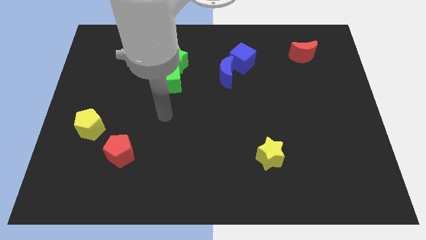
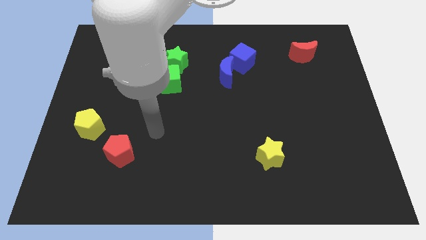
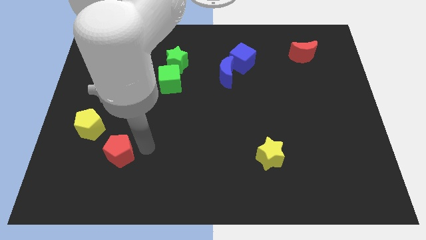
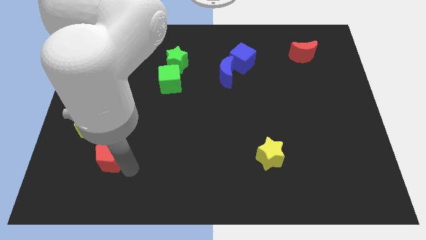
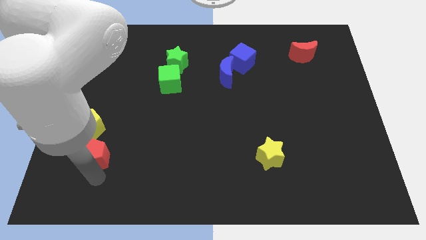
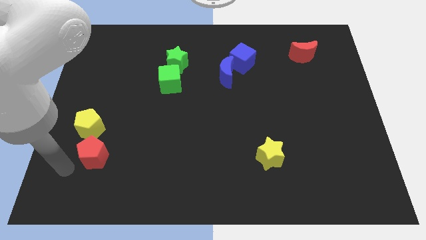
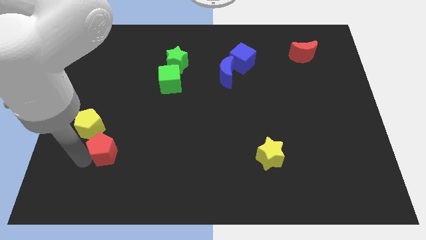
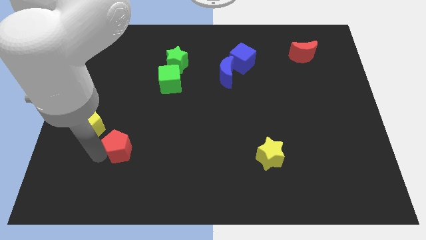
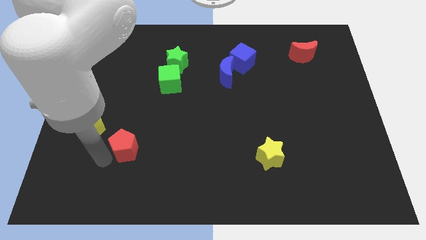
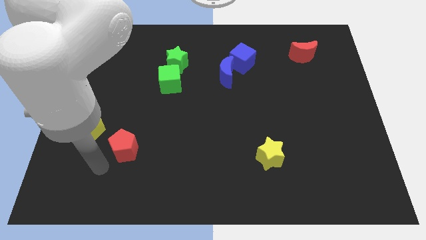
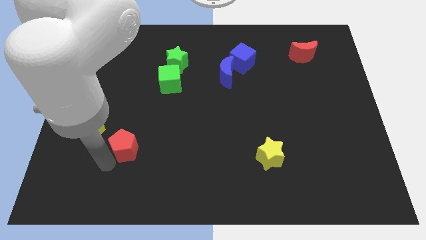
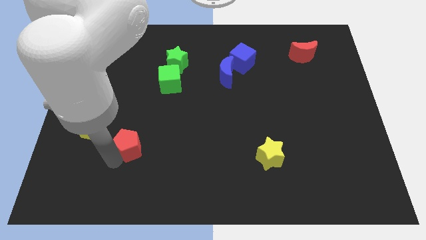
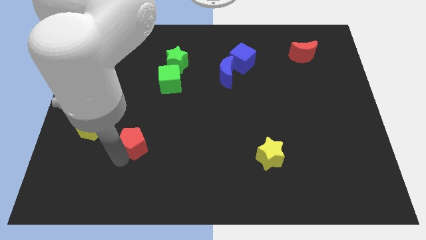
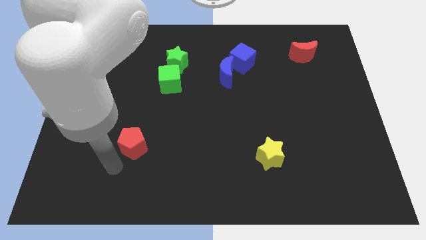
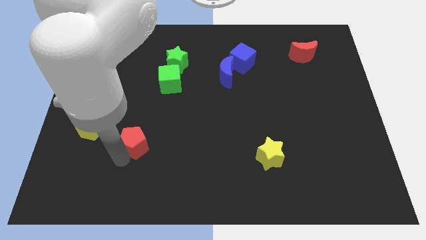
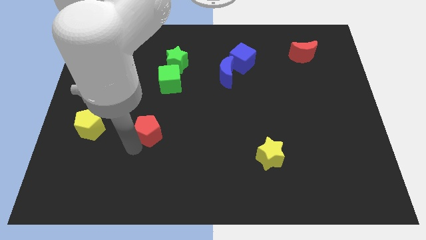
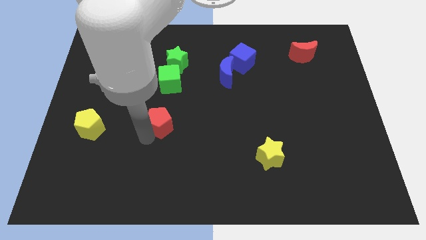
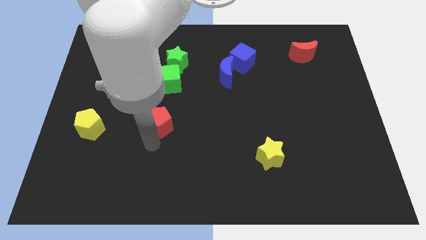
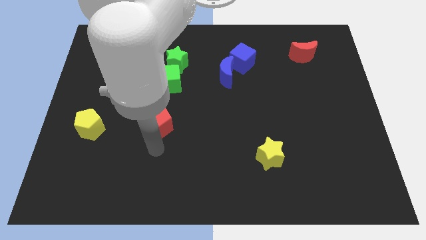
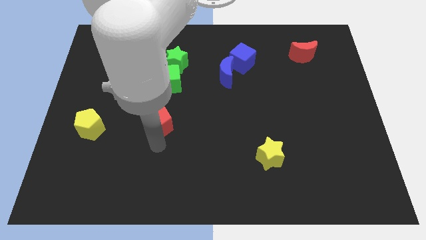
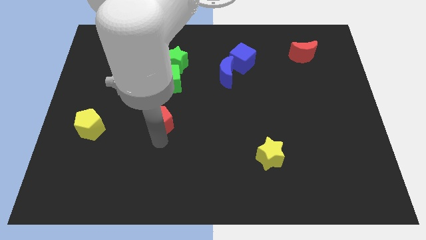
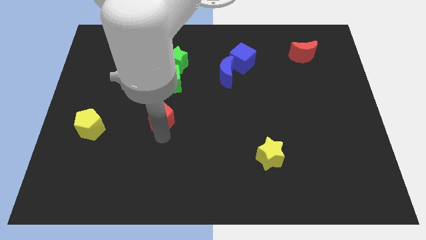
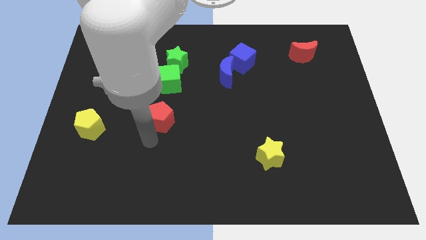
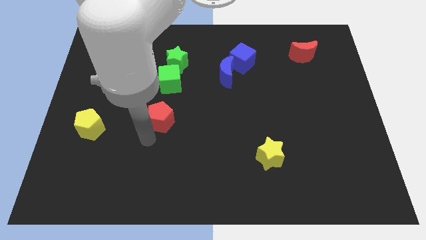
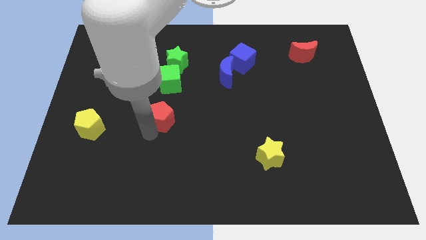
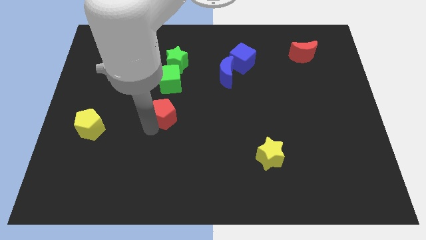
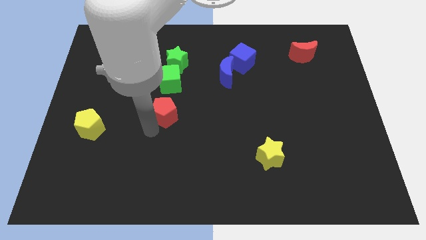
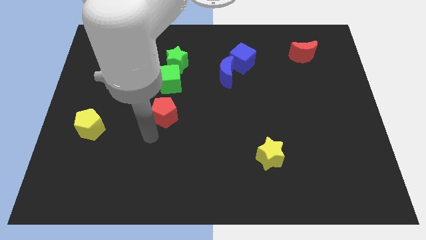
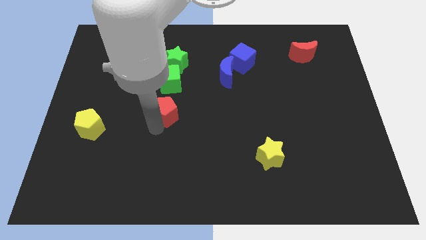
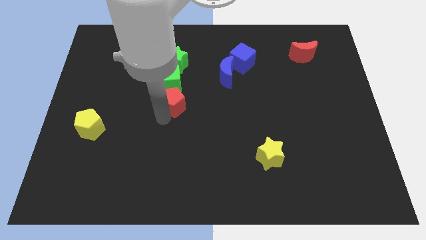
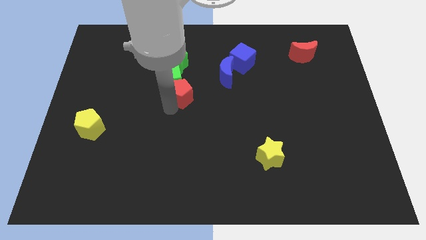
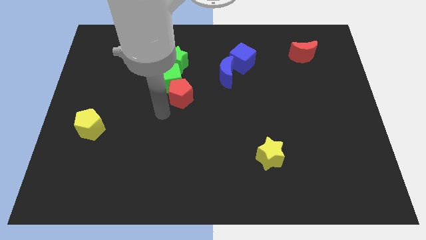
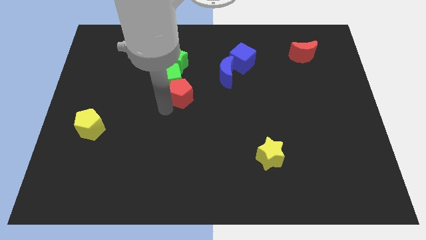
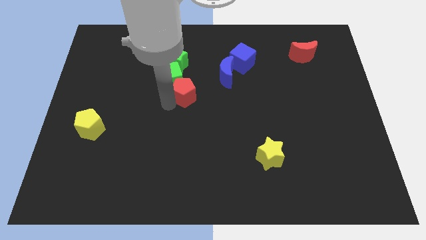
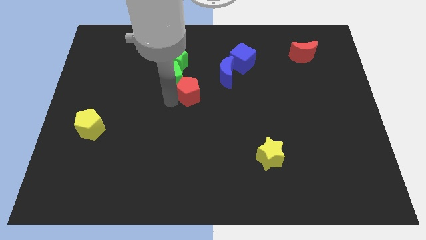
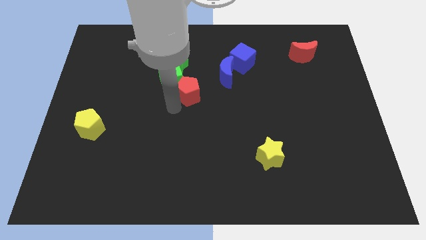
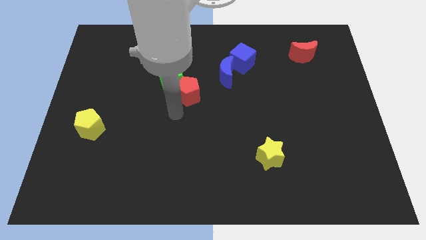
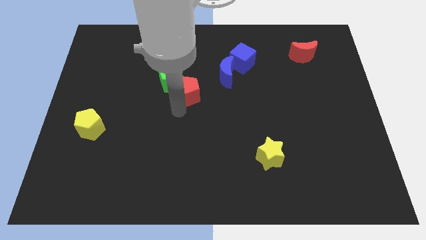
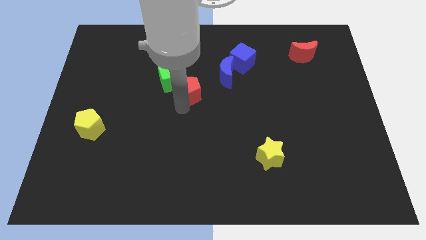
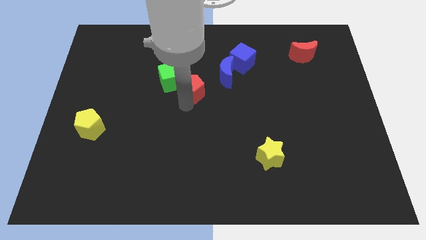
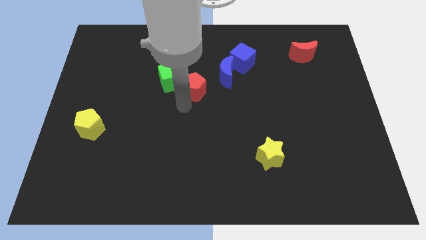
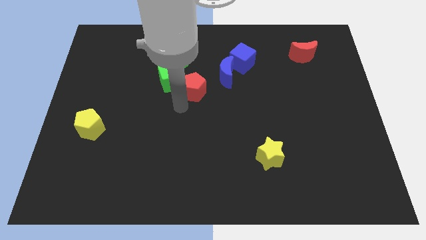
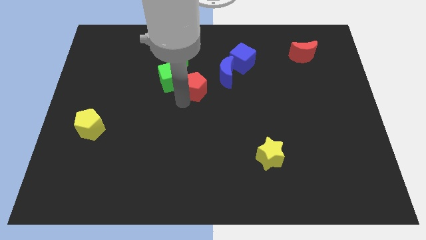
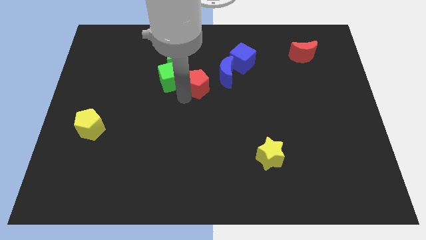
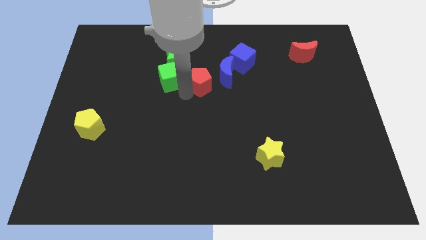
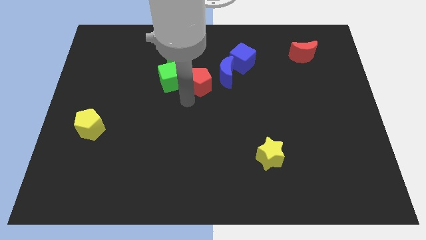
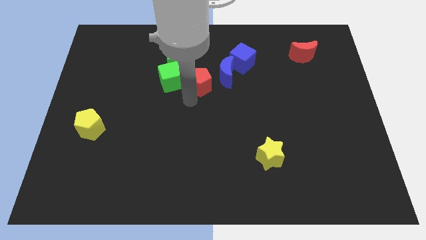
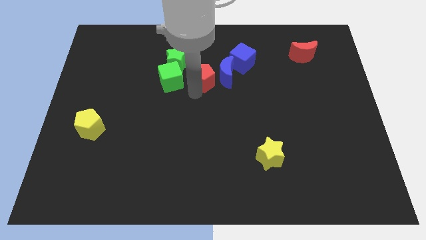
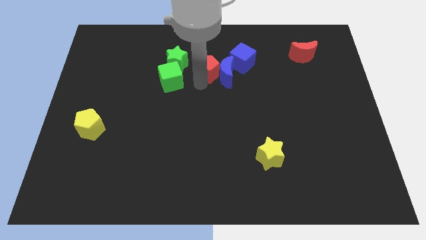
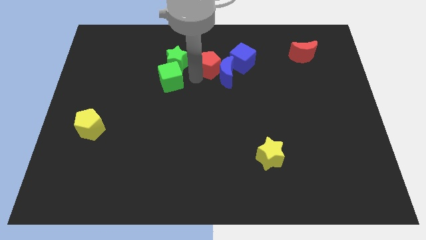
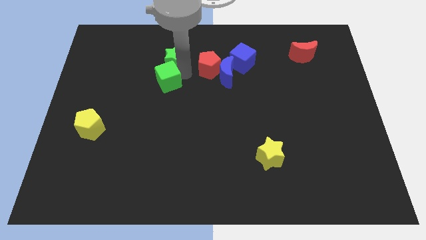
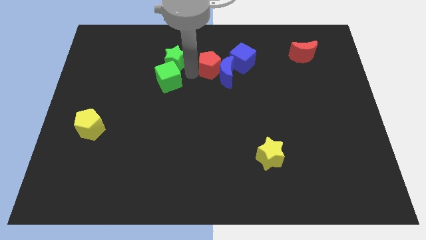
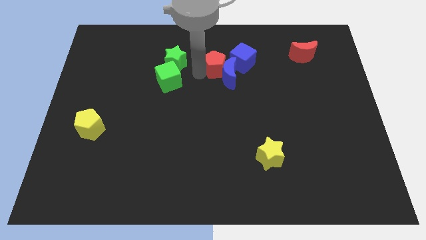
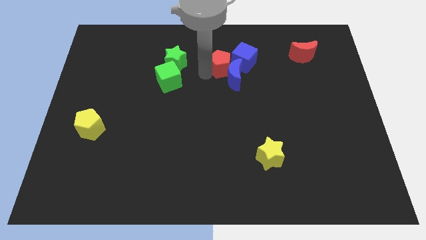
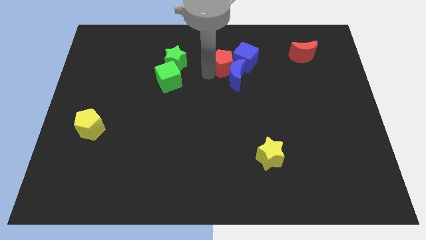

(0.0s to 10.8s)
slide the red pentagon close to the blue cube

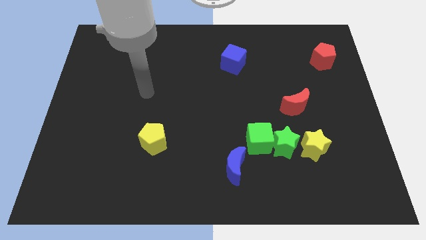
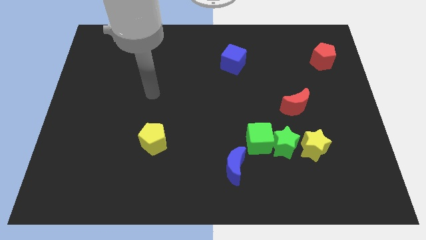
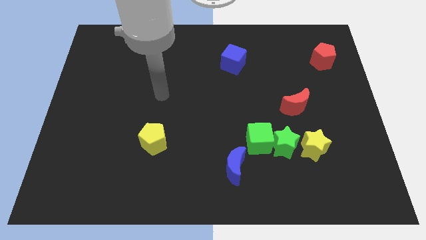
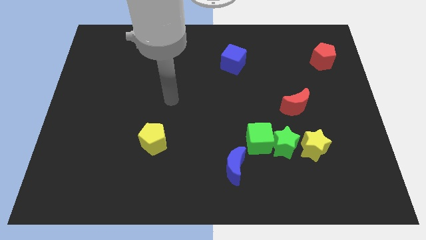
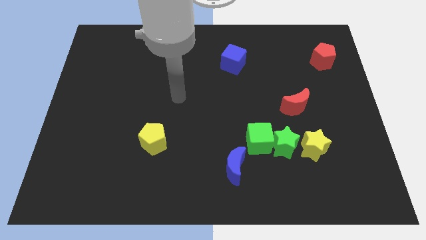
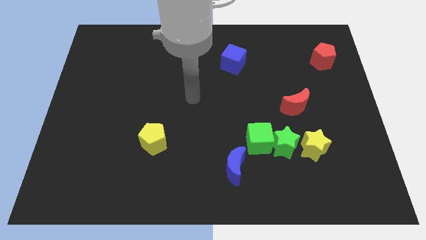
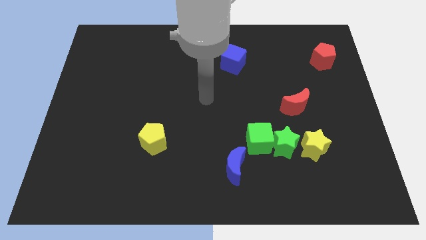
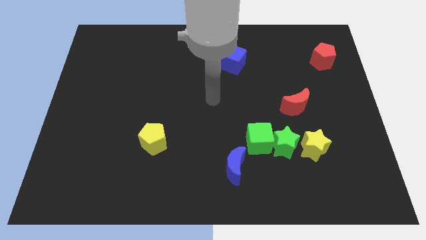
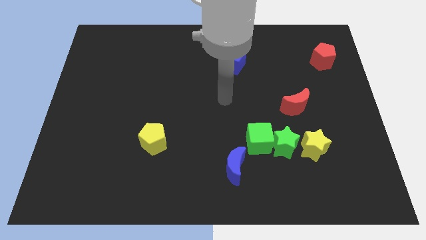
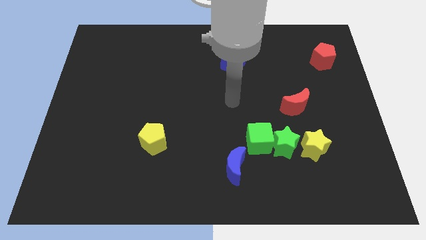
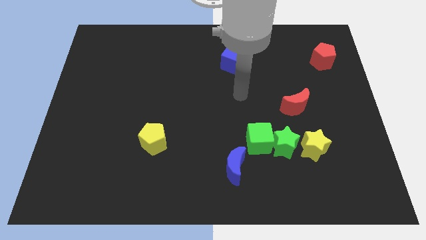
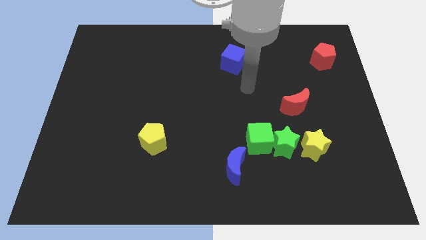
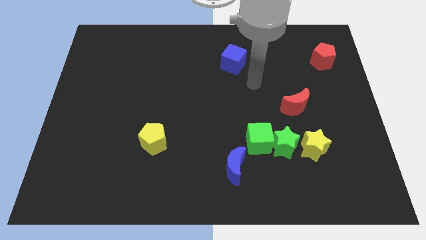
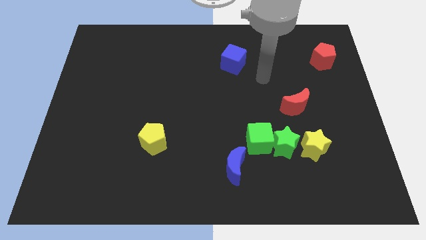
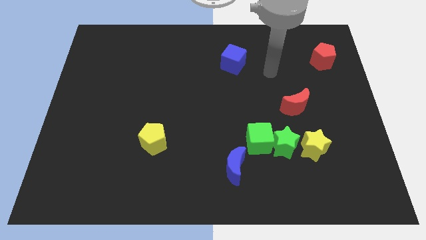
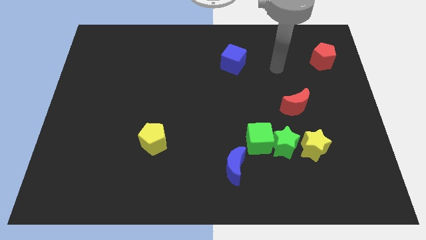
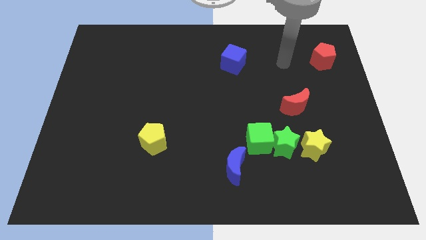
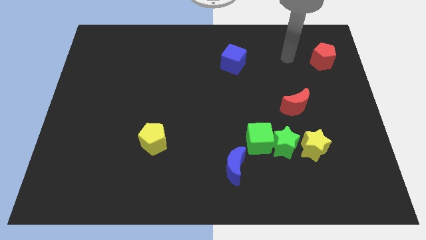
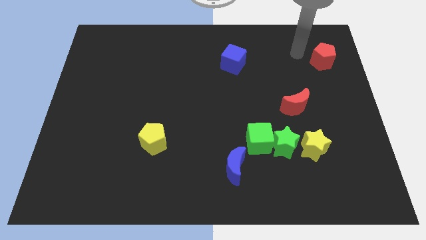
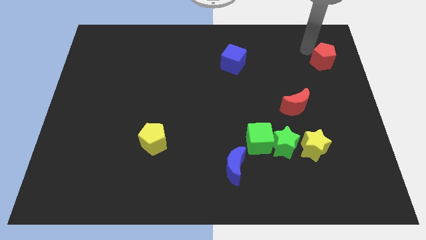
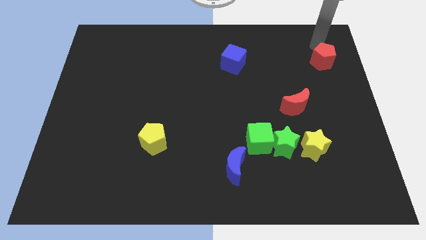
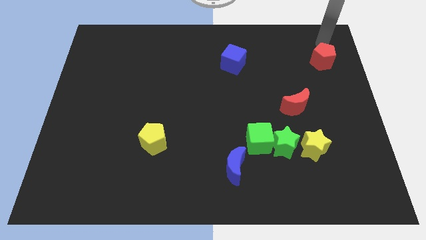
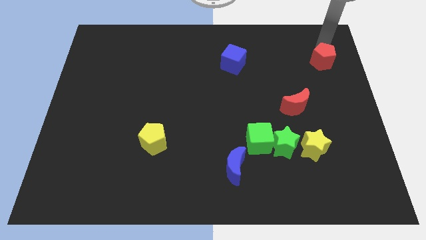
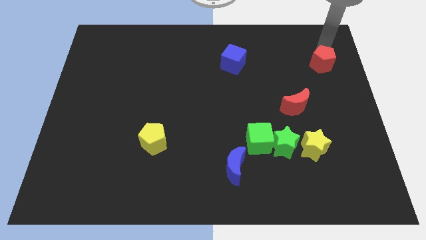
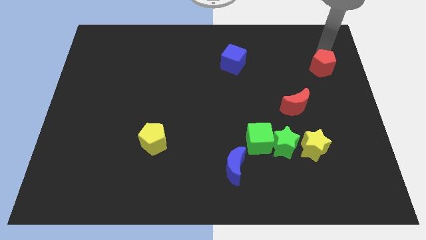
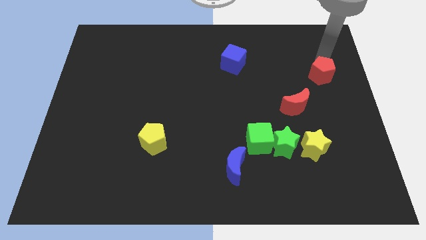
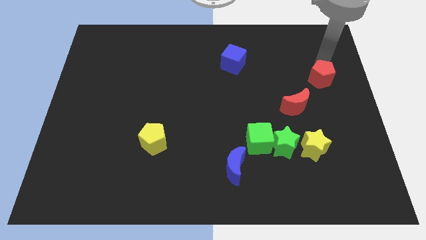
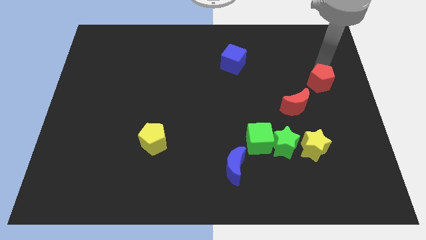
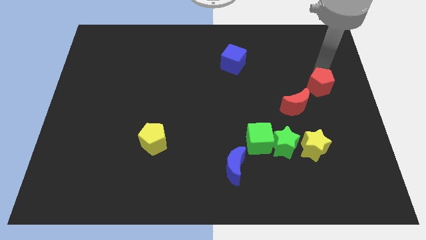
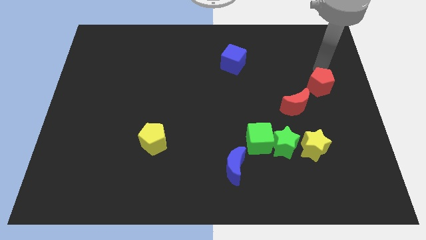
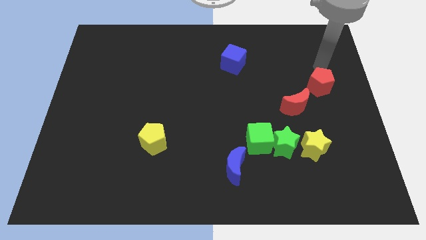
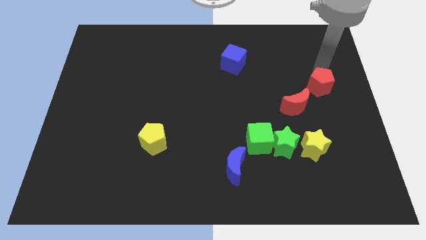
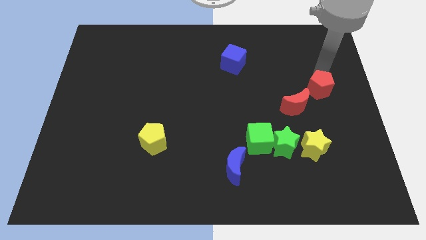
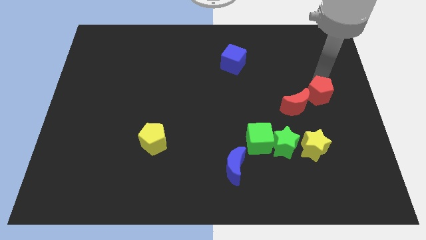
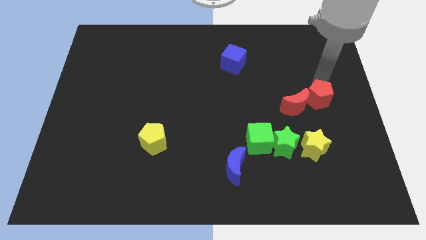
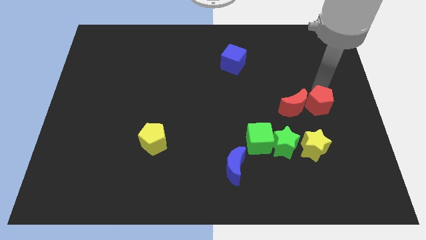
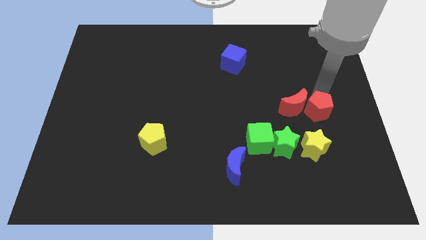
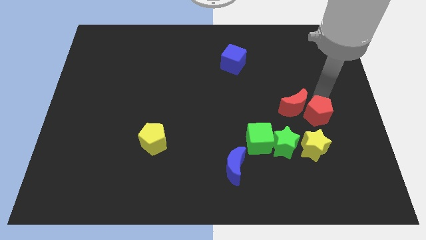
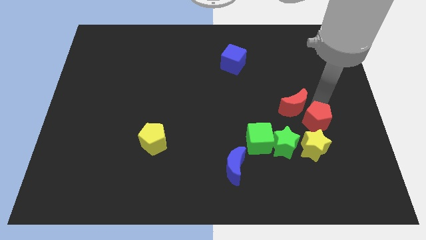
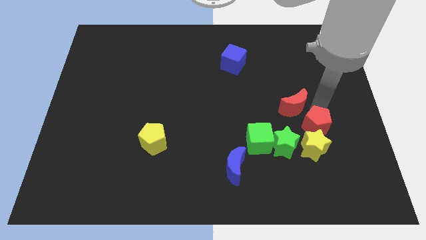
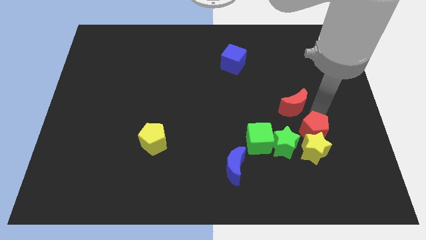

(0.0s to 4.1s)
put the red pentagon towards the yellow star
